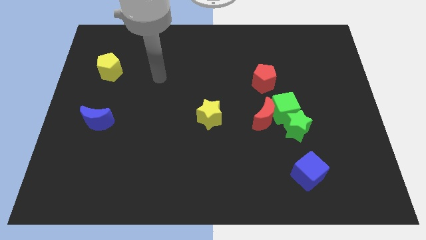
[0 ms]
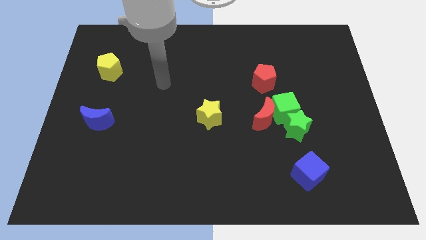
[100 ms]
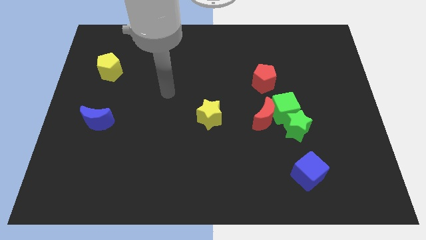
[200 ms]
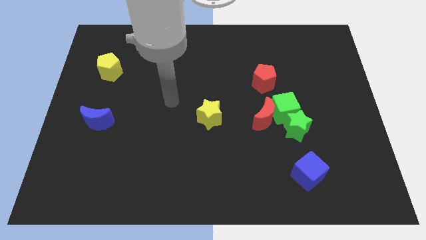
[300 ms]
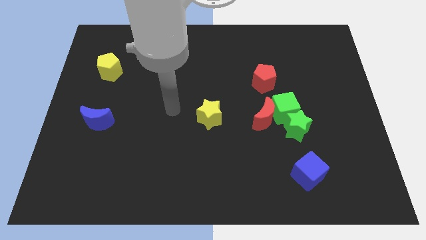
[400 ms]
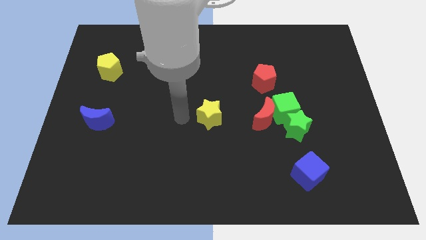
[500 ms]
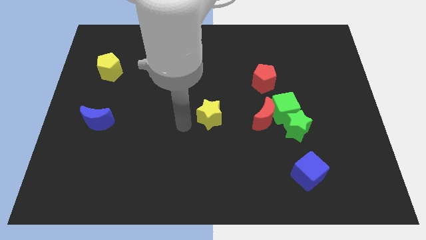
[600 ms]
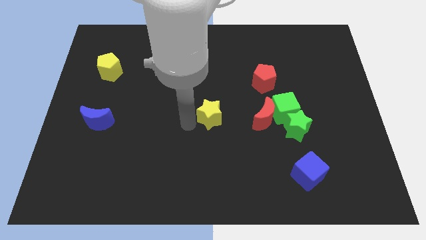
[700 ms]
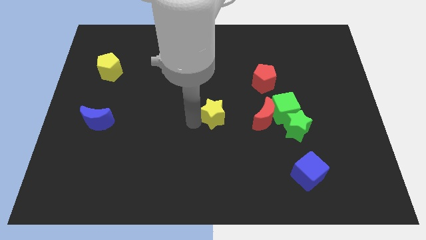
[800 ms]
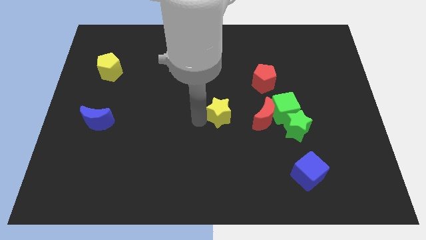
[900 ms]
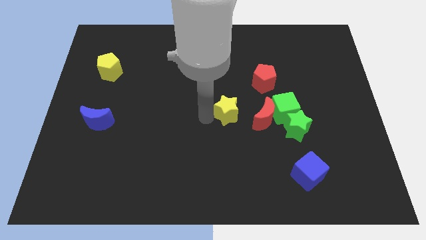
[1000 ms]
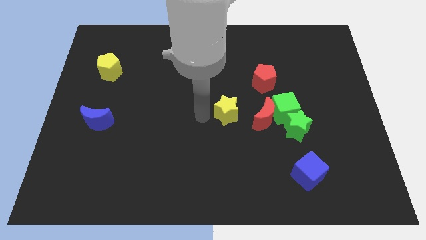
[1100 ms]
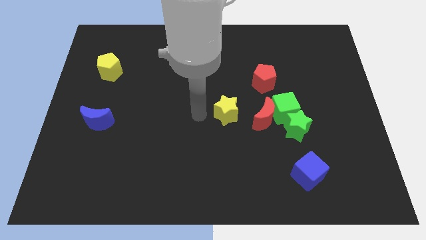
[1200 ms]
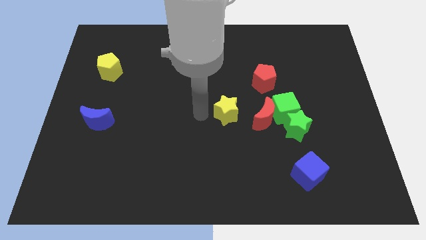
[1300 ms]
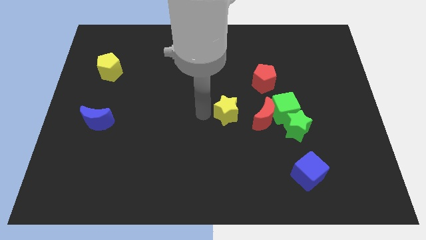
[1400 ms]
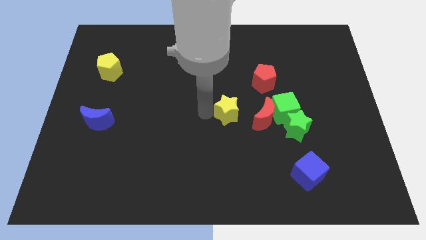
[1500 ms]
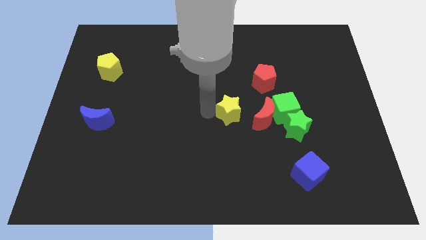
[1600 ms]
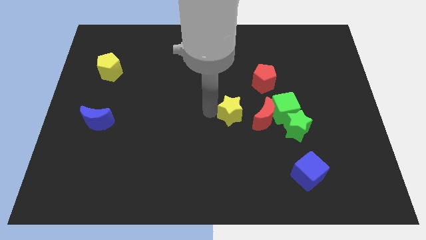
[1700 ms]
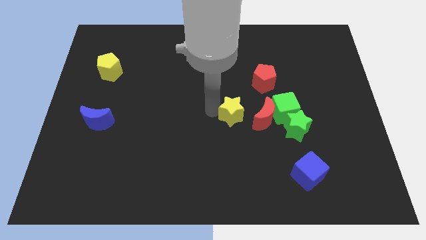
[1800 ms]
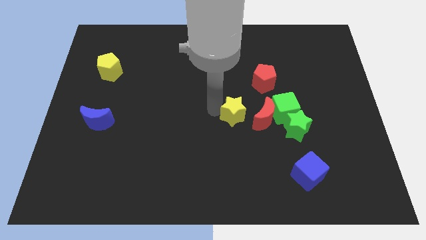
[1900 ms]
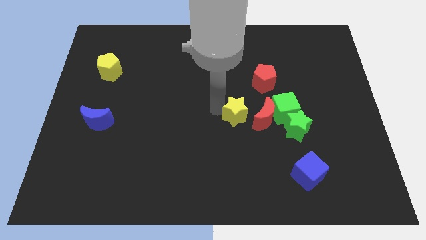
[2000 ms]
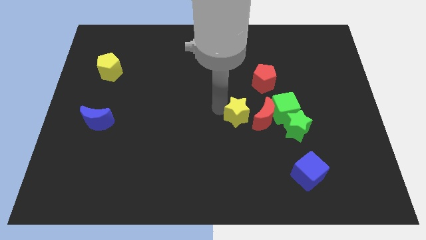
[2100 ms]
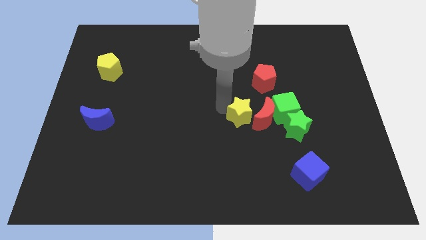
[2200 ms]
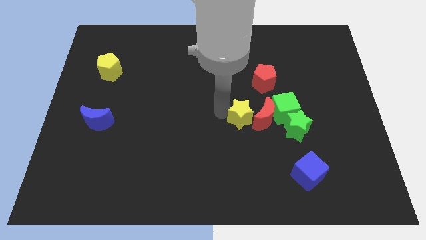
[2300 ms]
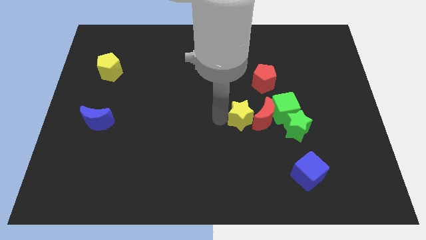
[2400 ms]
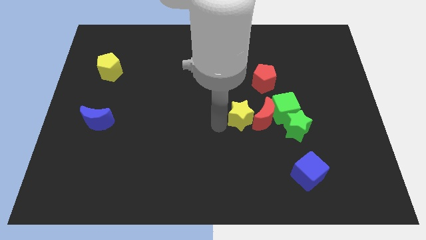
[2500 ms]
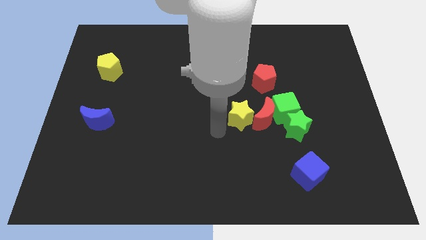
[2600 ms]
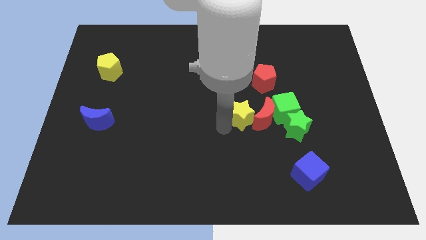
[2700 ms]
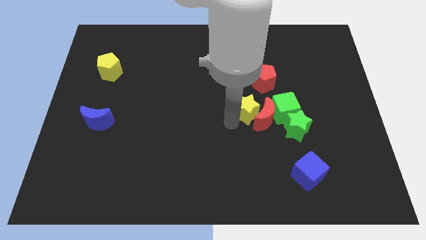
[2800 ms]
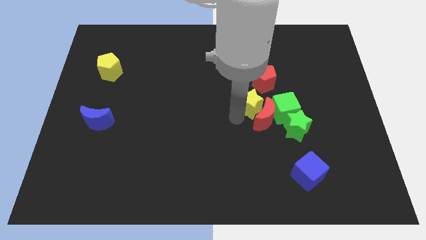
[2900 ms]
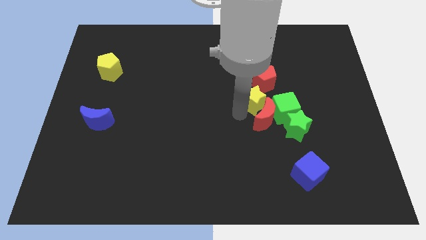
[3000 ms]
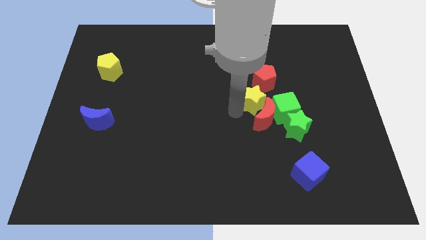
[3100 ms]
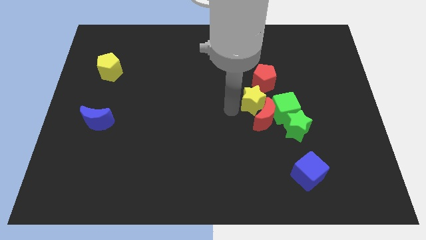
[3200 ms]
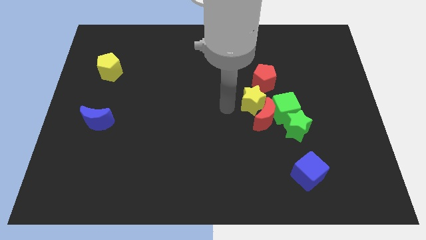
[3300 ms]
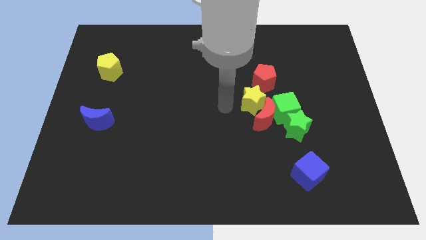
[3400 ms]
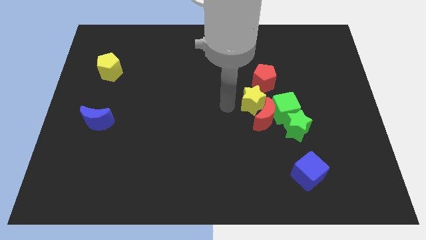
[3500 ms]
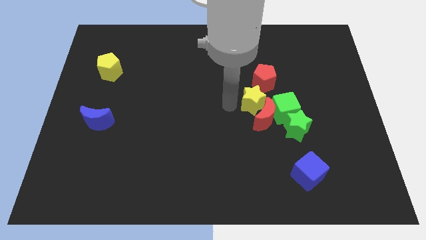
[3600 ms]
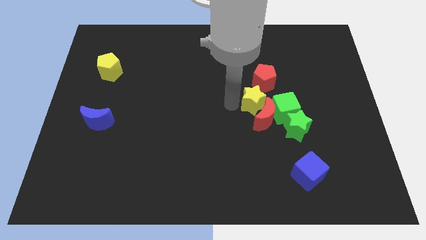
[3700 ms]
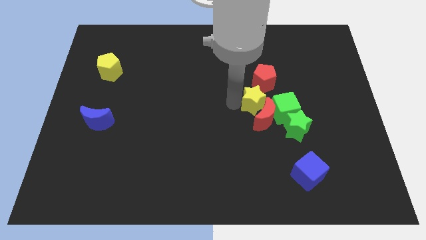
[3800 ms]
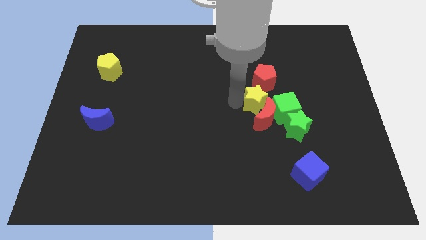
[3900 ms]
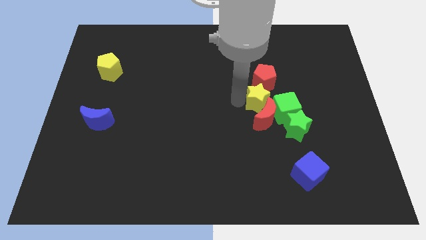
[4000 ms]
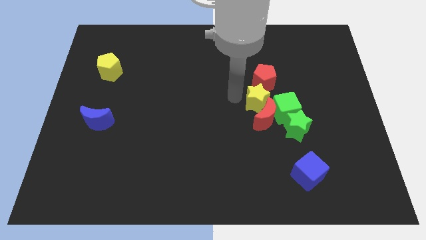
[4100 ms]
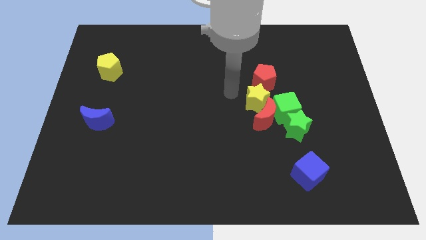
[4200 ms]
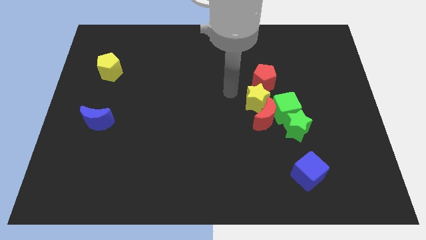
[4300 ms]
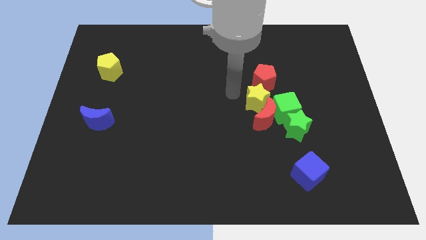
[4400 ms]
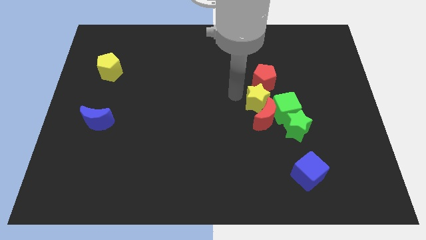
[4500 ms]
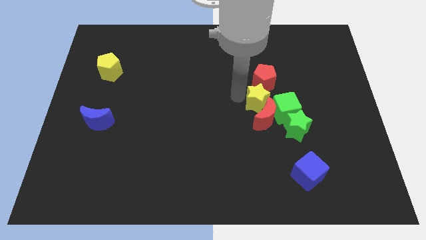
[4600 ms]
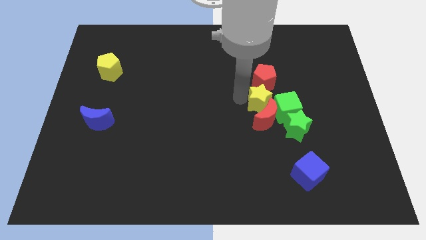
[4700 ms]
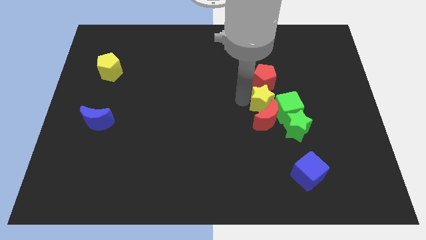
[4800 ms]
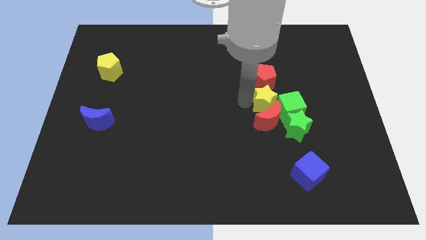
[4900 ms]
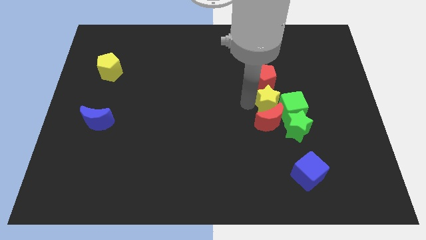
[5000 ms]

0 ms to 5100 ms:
put the yellow star close to the green cube

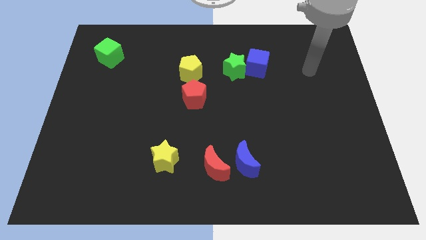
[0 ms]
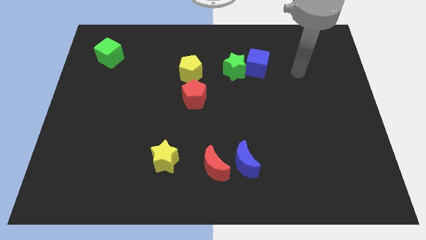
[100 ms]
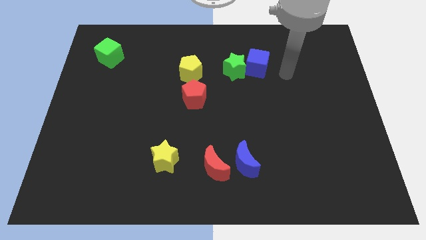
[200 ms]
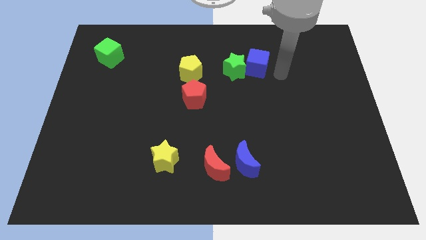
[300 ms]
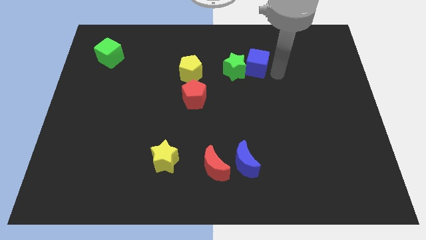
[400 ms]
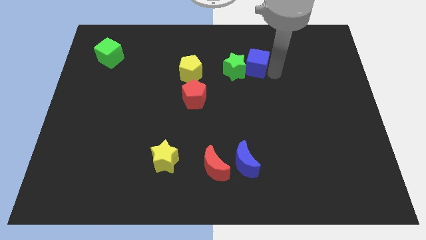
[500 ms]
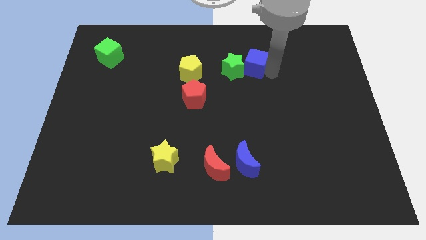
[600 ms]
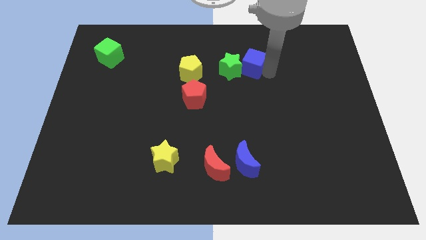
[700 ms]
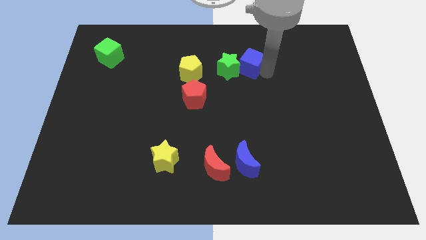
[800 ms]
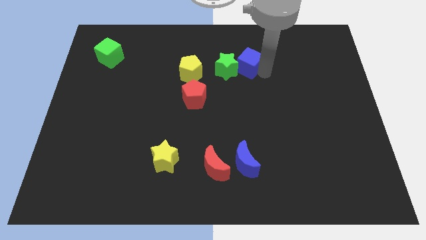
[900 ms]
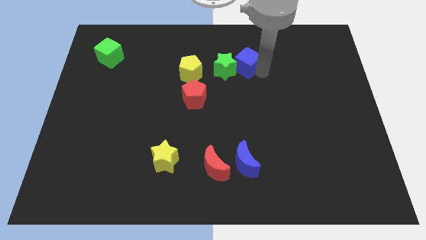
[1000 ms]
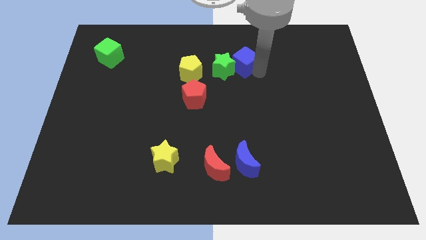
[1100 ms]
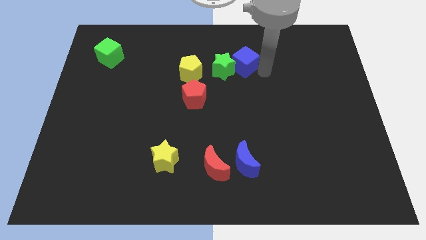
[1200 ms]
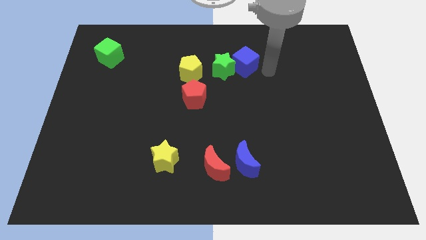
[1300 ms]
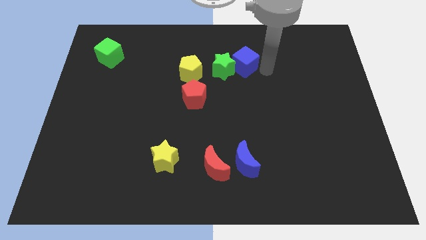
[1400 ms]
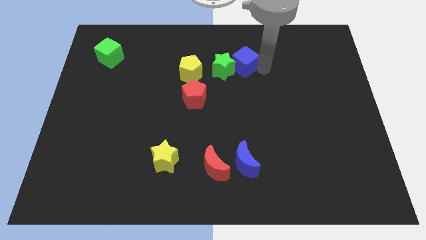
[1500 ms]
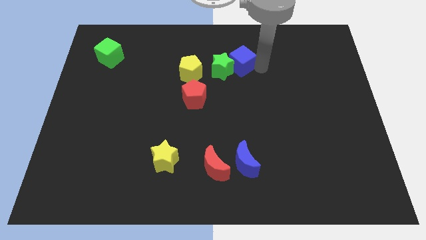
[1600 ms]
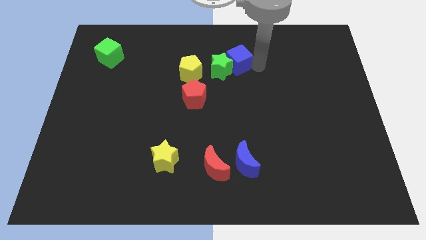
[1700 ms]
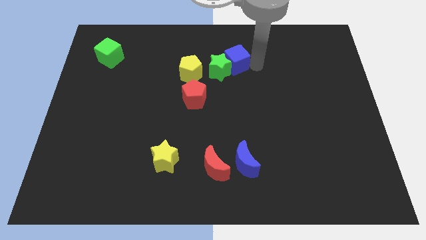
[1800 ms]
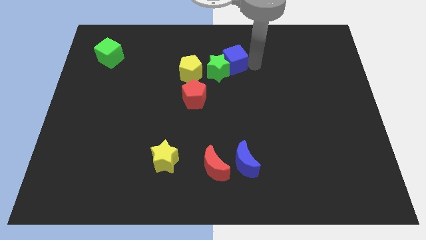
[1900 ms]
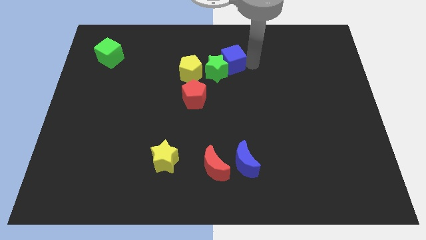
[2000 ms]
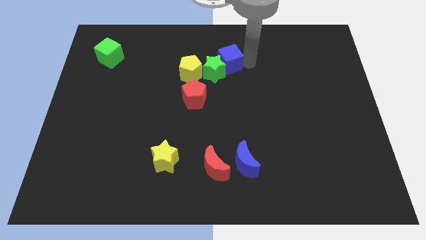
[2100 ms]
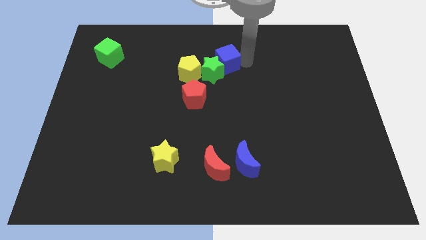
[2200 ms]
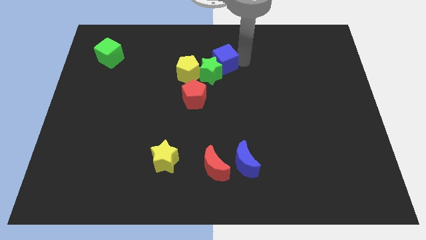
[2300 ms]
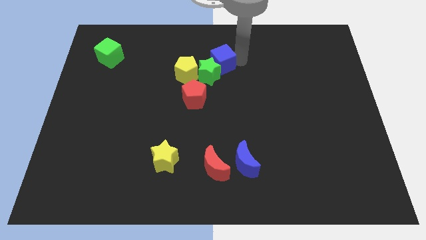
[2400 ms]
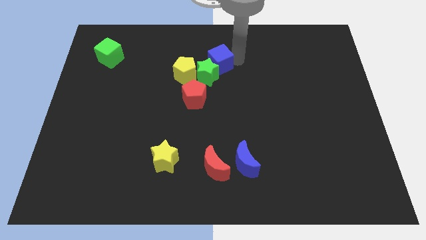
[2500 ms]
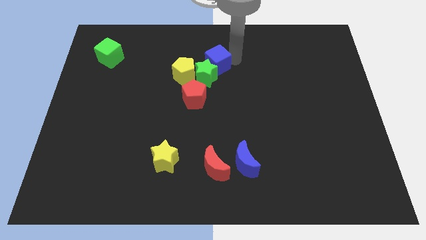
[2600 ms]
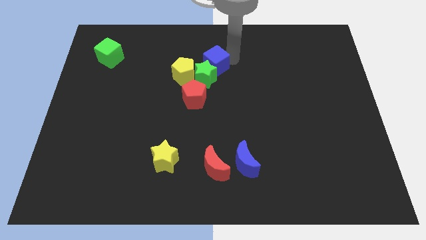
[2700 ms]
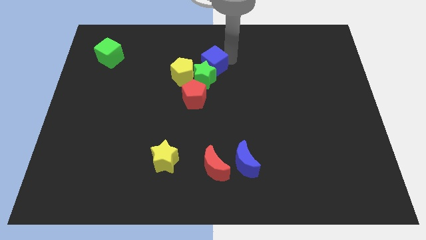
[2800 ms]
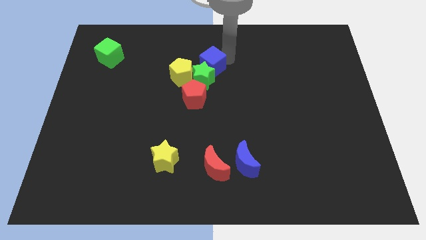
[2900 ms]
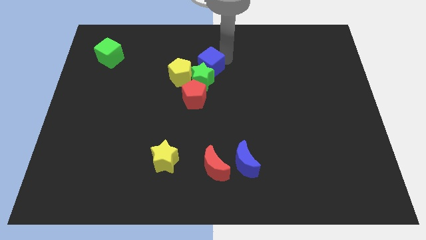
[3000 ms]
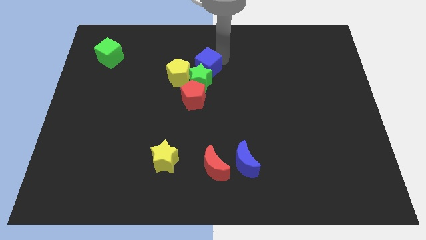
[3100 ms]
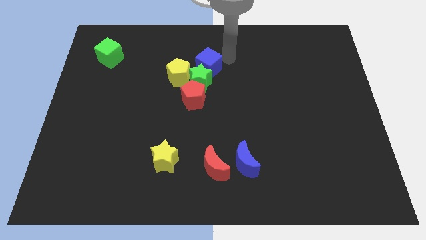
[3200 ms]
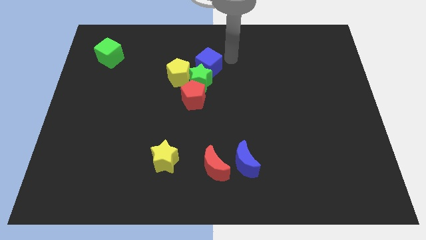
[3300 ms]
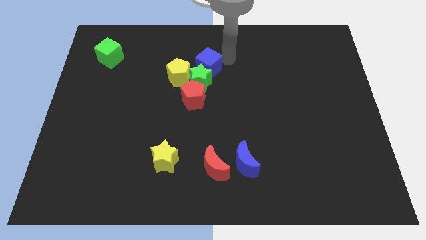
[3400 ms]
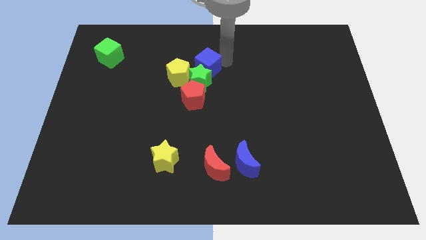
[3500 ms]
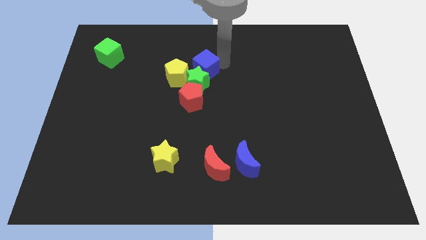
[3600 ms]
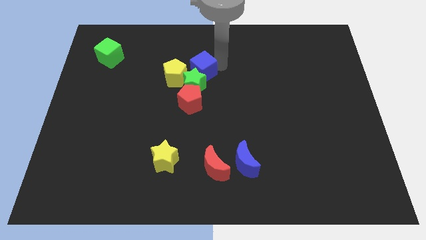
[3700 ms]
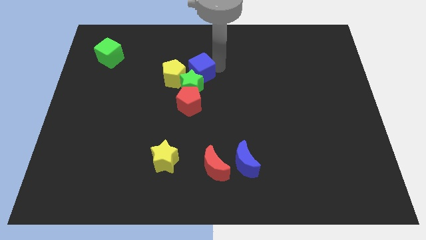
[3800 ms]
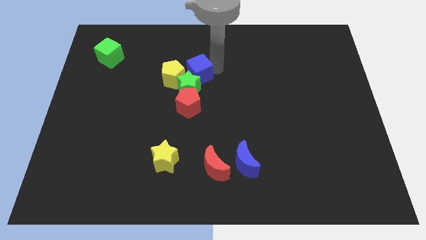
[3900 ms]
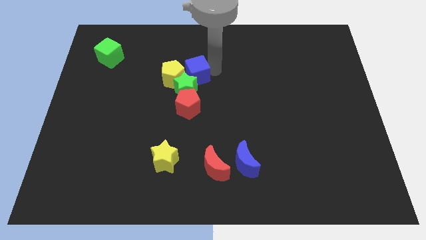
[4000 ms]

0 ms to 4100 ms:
push the blue cube close to the yellow pentagon
